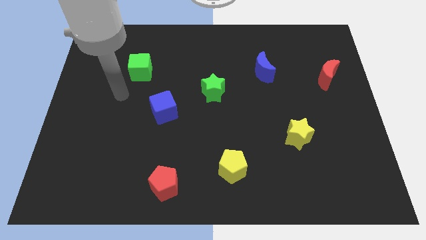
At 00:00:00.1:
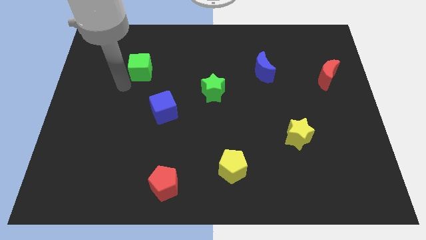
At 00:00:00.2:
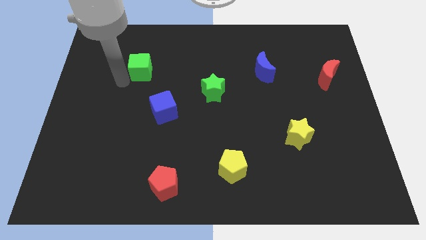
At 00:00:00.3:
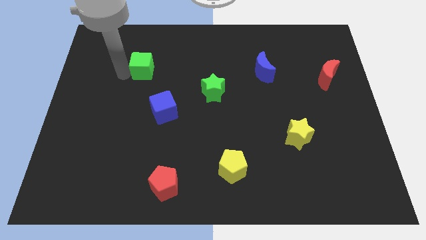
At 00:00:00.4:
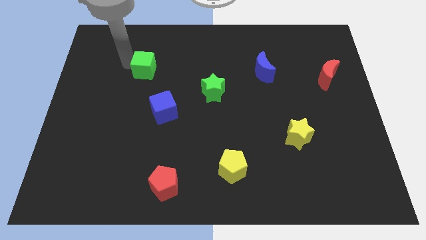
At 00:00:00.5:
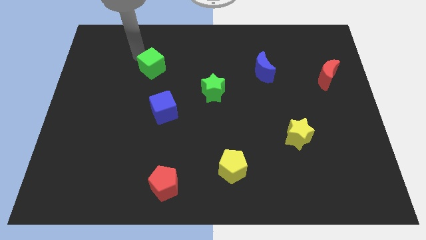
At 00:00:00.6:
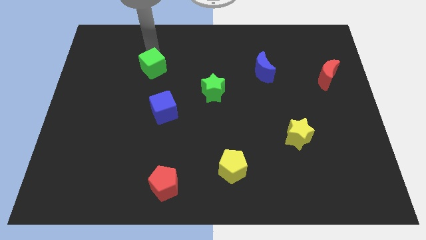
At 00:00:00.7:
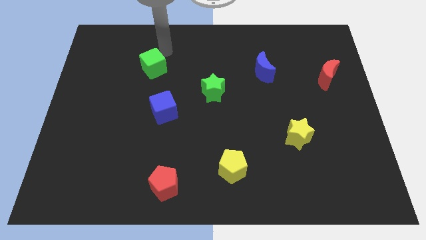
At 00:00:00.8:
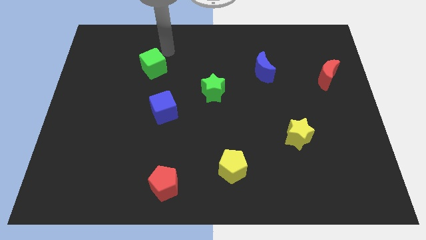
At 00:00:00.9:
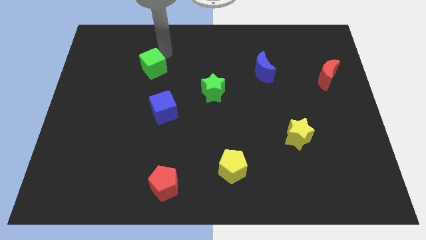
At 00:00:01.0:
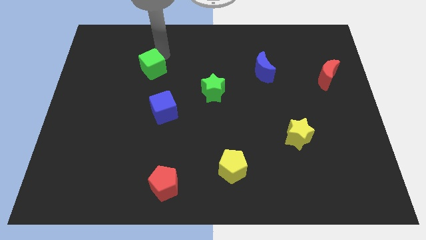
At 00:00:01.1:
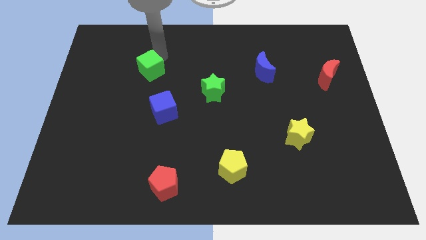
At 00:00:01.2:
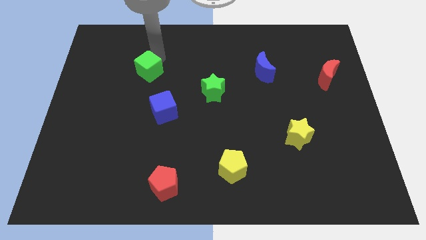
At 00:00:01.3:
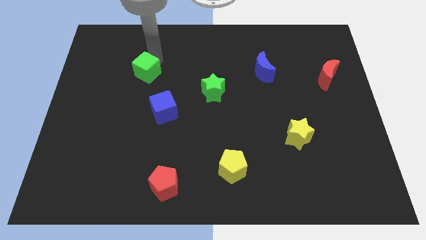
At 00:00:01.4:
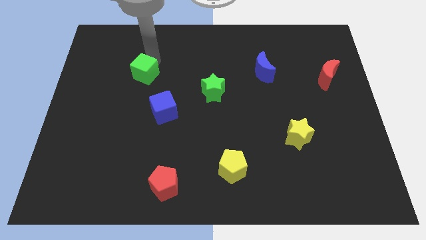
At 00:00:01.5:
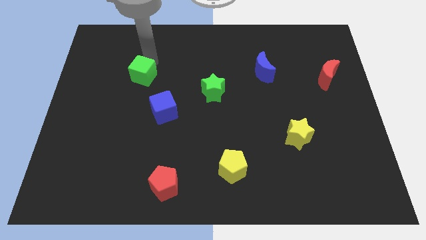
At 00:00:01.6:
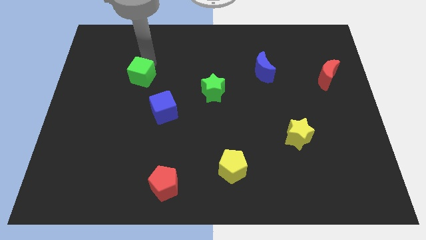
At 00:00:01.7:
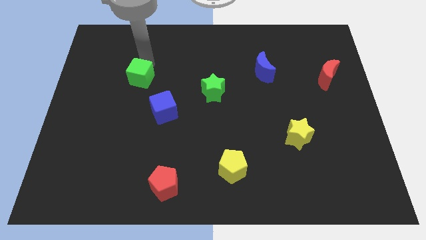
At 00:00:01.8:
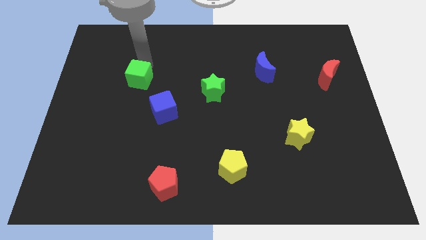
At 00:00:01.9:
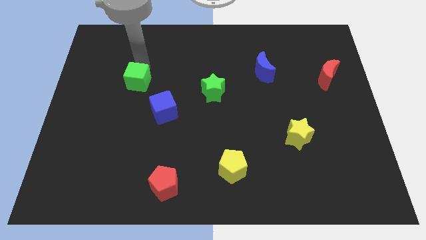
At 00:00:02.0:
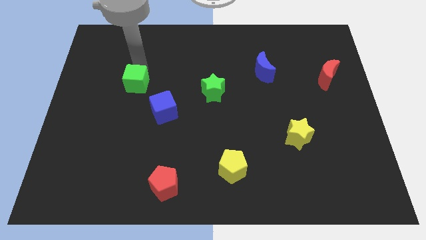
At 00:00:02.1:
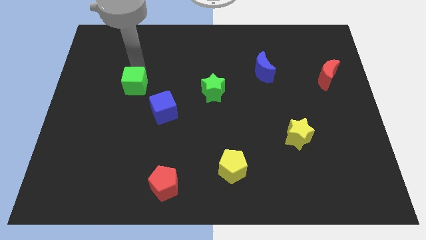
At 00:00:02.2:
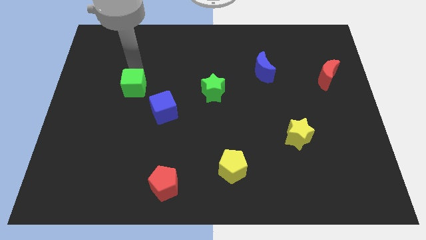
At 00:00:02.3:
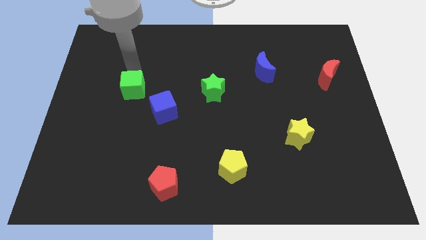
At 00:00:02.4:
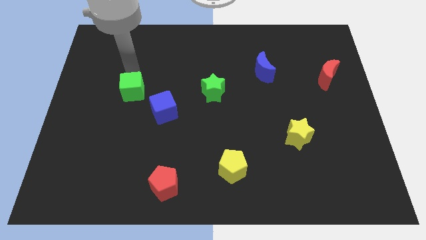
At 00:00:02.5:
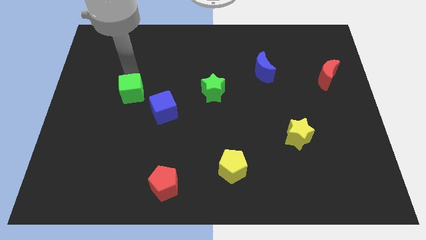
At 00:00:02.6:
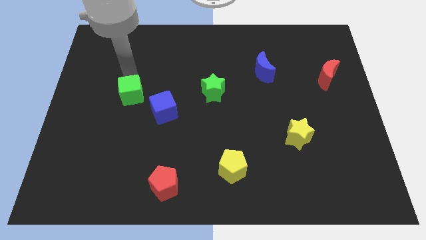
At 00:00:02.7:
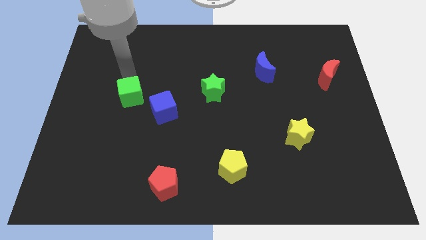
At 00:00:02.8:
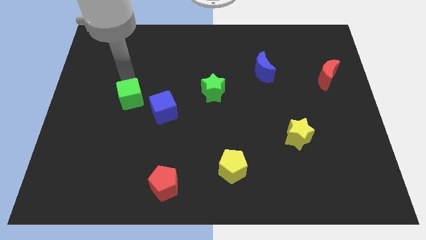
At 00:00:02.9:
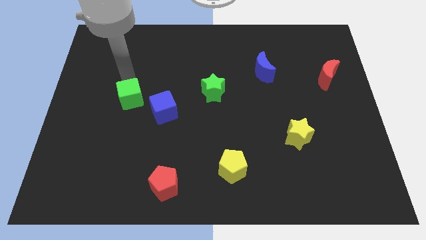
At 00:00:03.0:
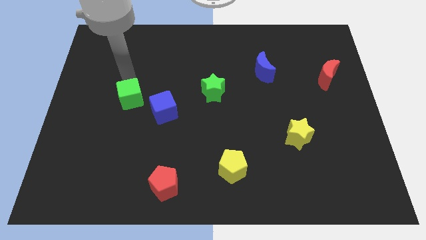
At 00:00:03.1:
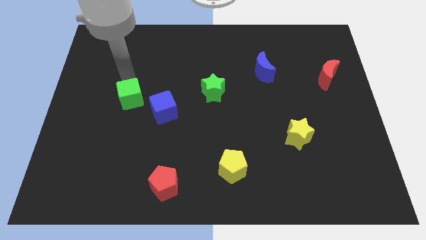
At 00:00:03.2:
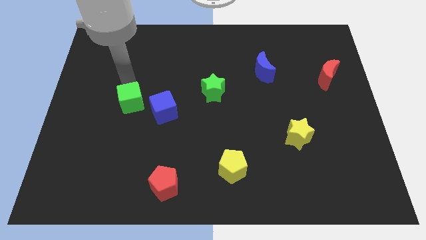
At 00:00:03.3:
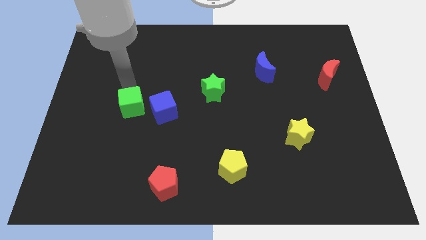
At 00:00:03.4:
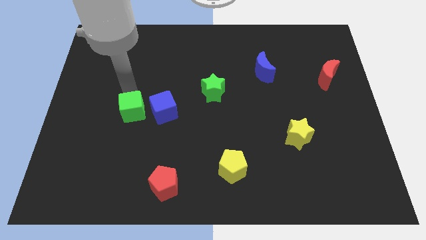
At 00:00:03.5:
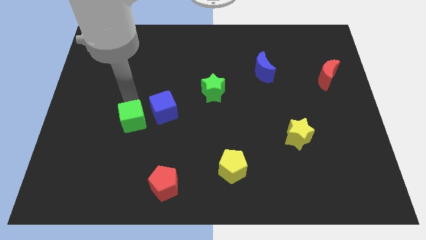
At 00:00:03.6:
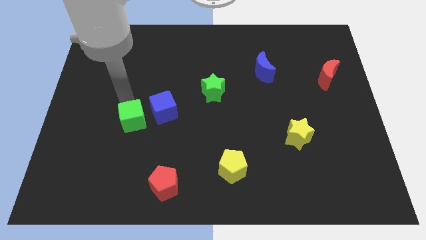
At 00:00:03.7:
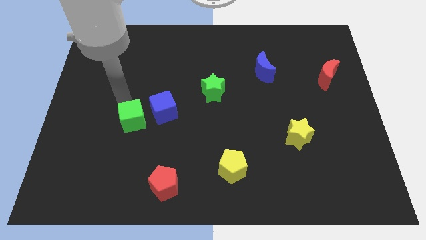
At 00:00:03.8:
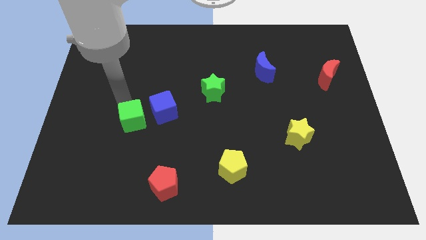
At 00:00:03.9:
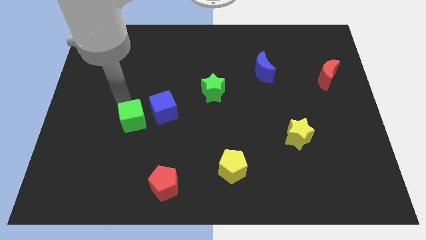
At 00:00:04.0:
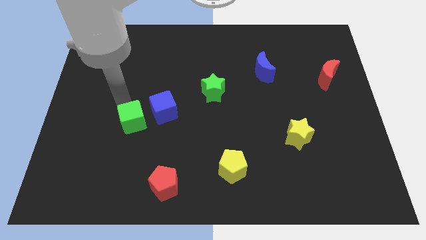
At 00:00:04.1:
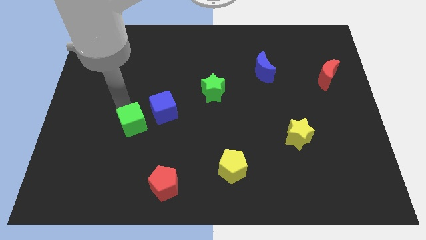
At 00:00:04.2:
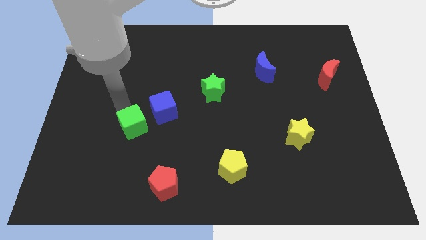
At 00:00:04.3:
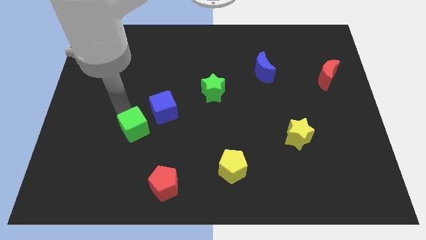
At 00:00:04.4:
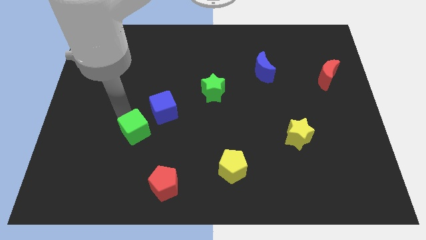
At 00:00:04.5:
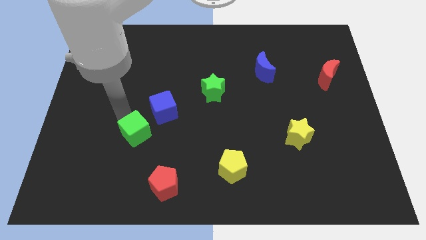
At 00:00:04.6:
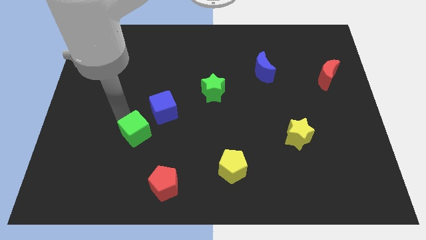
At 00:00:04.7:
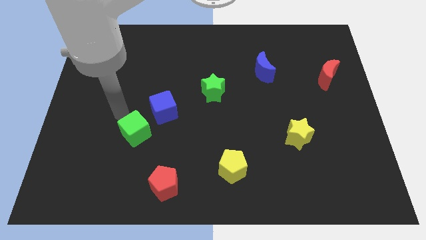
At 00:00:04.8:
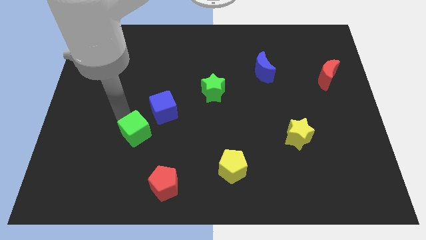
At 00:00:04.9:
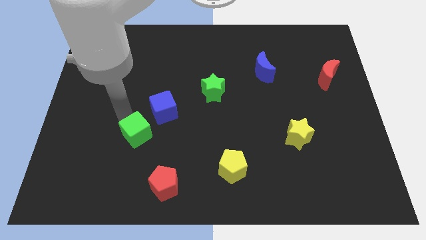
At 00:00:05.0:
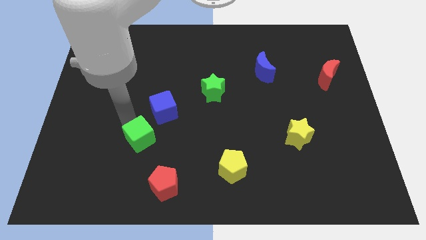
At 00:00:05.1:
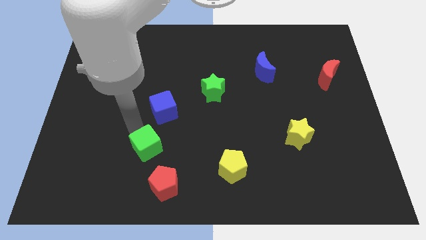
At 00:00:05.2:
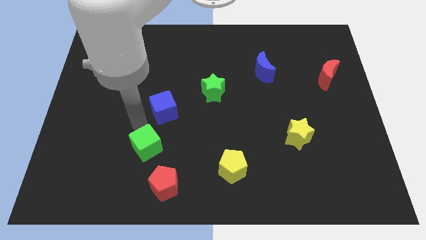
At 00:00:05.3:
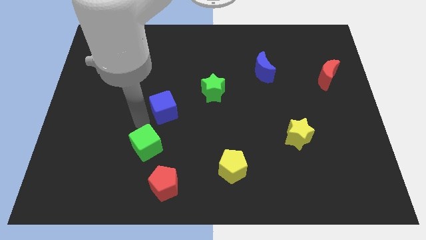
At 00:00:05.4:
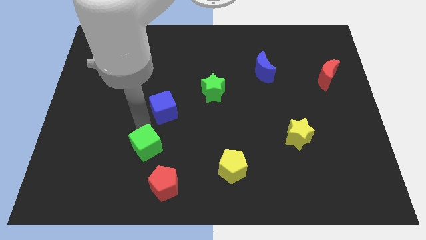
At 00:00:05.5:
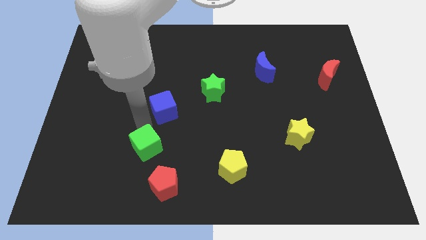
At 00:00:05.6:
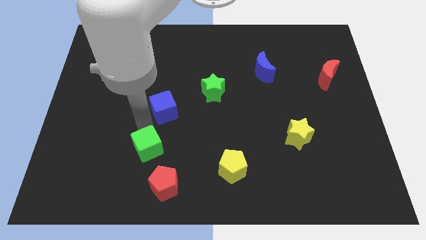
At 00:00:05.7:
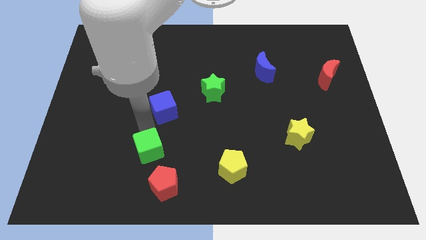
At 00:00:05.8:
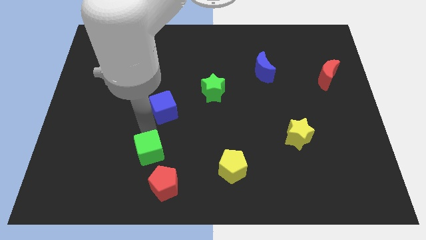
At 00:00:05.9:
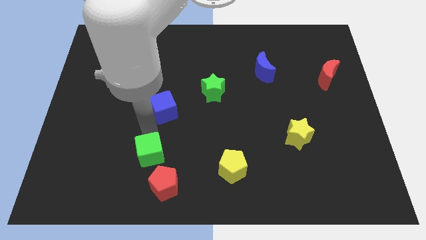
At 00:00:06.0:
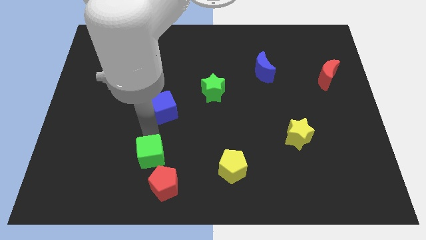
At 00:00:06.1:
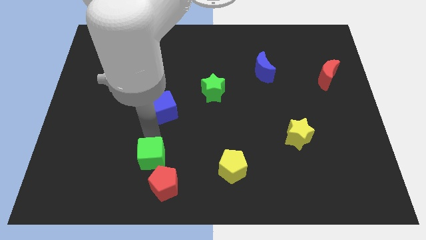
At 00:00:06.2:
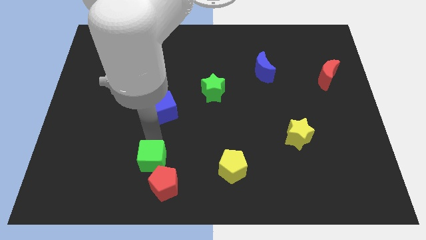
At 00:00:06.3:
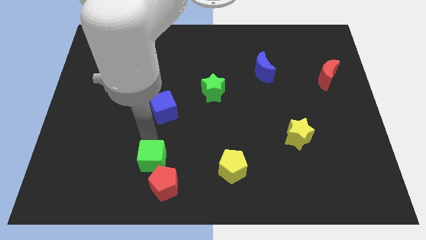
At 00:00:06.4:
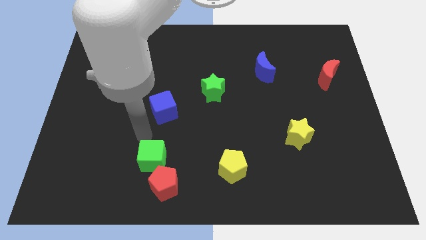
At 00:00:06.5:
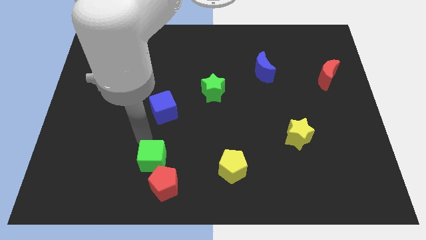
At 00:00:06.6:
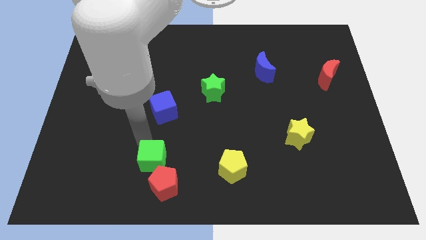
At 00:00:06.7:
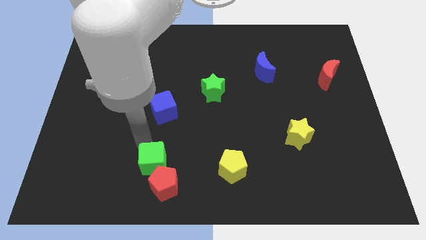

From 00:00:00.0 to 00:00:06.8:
put the green cube to the red pentagon

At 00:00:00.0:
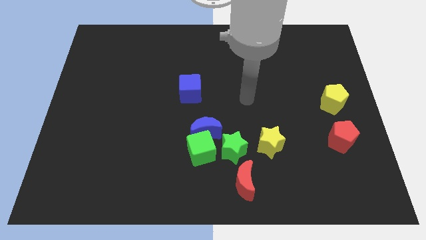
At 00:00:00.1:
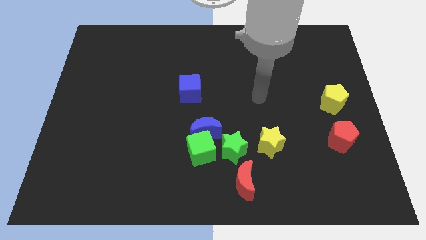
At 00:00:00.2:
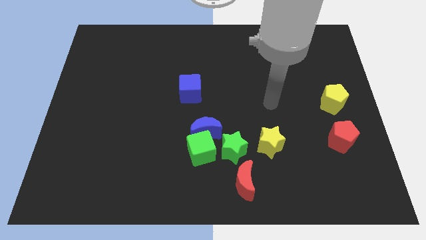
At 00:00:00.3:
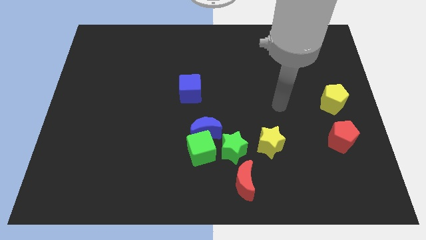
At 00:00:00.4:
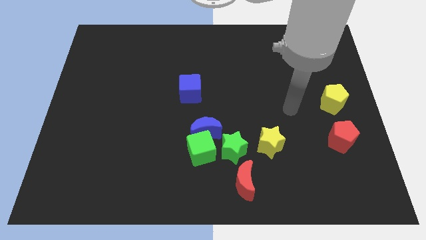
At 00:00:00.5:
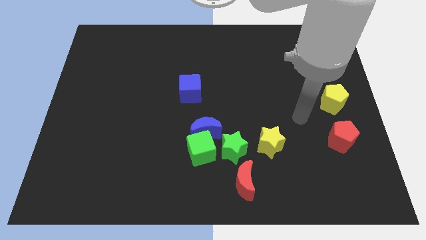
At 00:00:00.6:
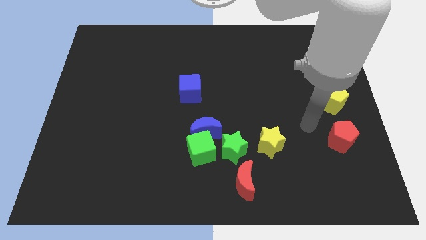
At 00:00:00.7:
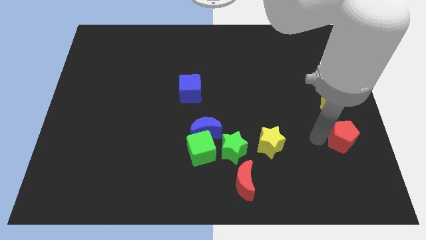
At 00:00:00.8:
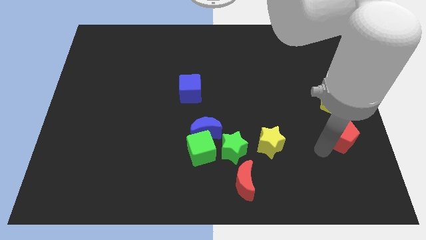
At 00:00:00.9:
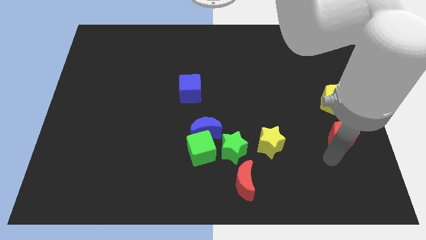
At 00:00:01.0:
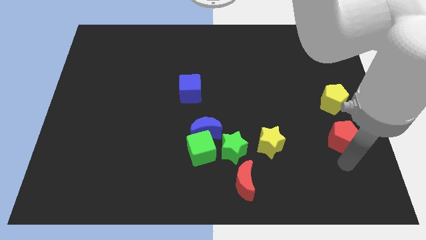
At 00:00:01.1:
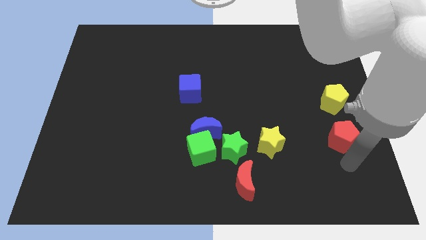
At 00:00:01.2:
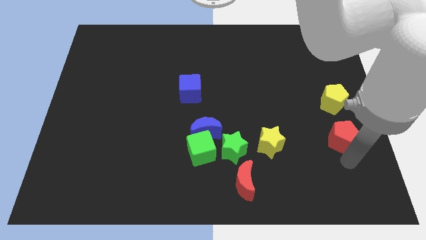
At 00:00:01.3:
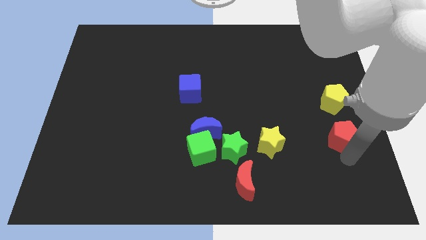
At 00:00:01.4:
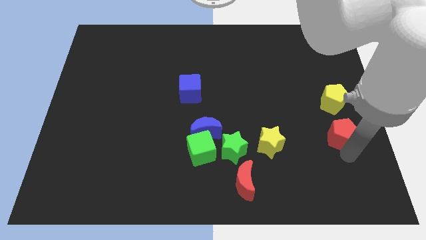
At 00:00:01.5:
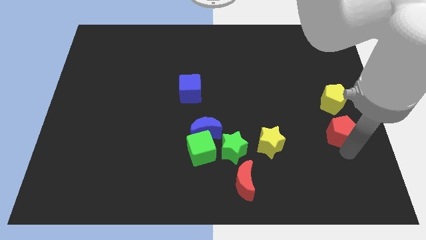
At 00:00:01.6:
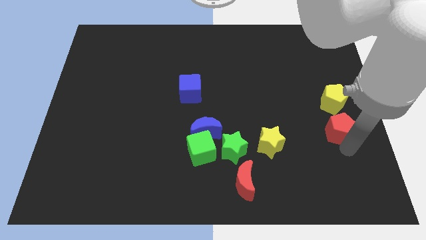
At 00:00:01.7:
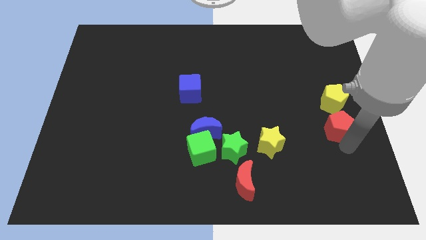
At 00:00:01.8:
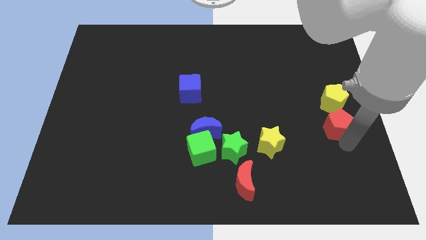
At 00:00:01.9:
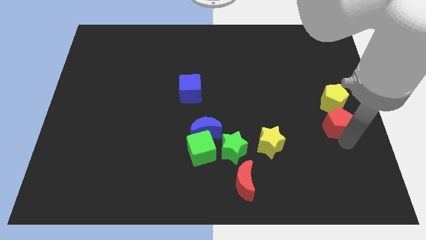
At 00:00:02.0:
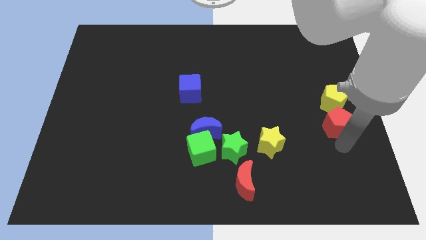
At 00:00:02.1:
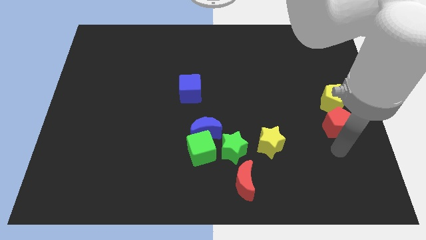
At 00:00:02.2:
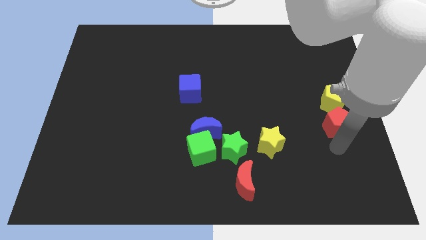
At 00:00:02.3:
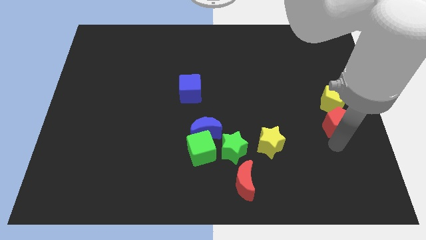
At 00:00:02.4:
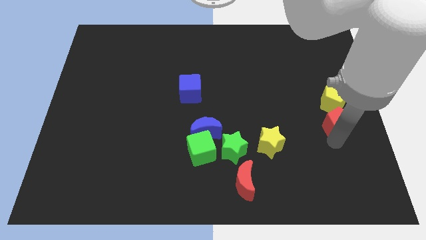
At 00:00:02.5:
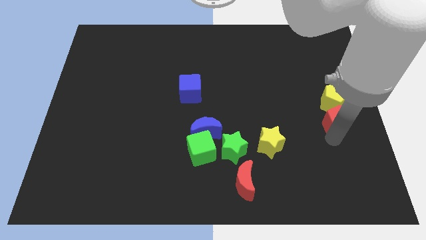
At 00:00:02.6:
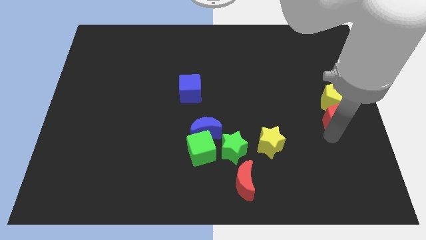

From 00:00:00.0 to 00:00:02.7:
slide the red pentagon next to the yellow pentagon
